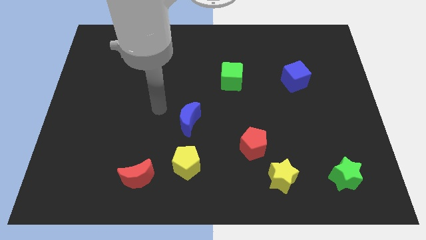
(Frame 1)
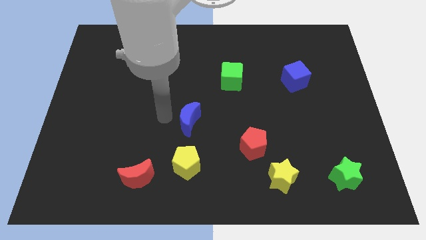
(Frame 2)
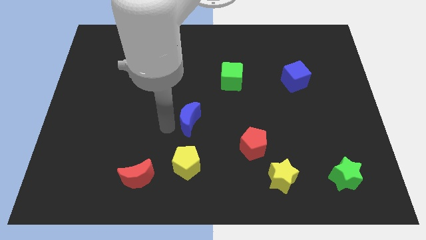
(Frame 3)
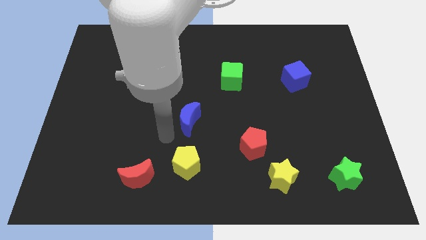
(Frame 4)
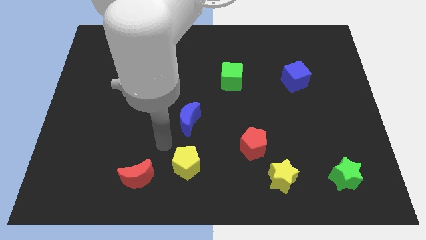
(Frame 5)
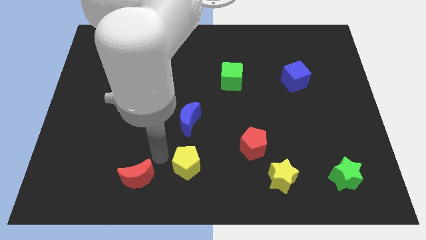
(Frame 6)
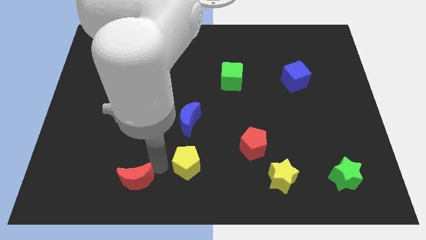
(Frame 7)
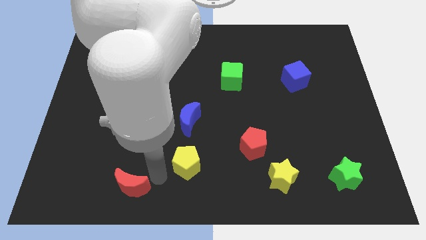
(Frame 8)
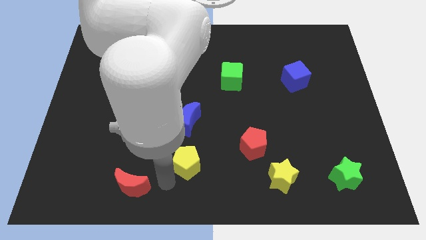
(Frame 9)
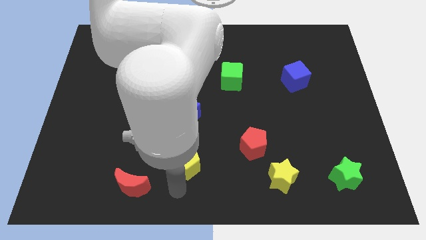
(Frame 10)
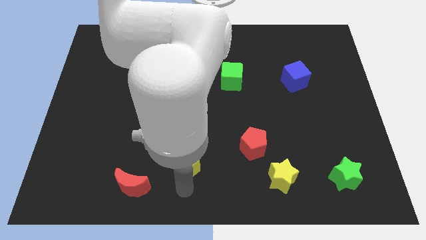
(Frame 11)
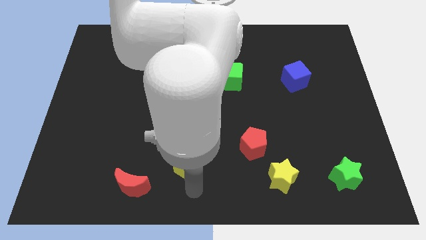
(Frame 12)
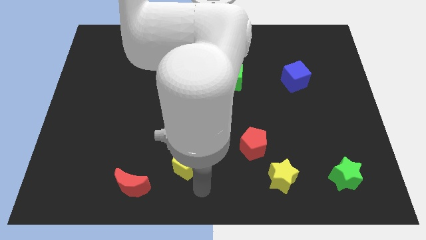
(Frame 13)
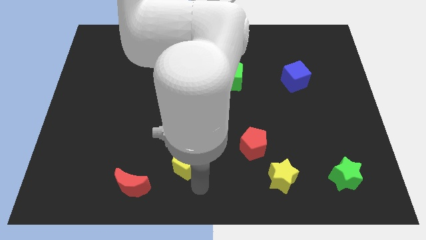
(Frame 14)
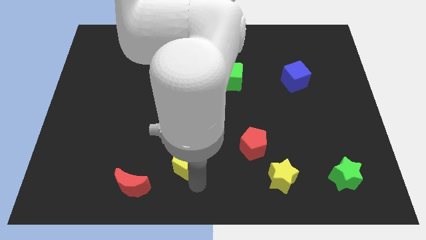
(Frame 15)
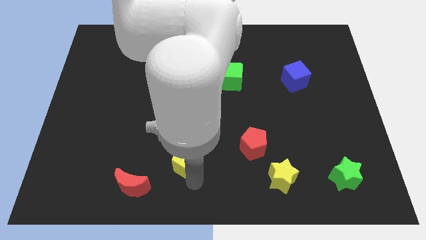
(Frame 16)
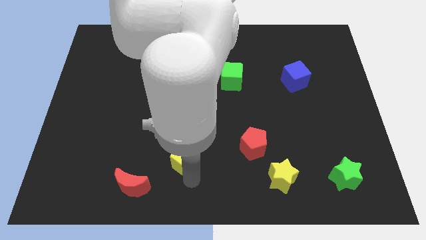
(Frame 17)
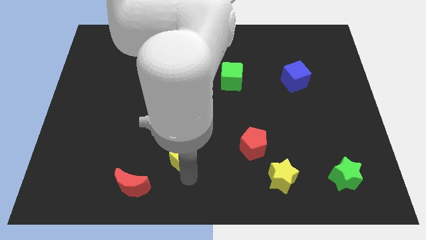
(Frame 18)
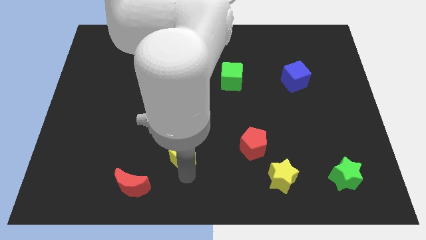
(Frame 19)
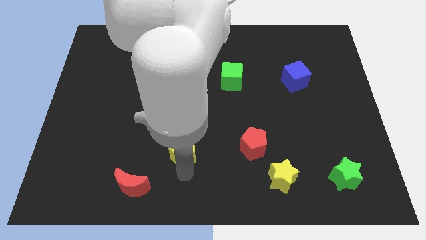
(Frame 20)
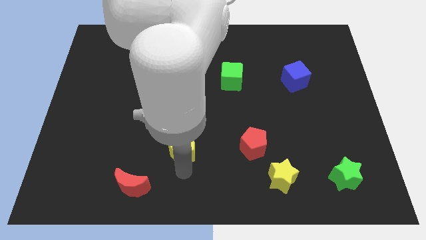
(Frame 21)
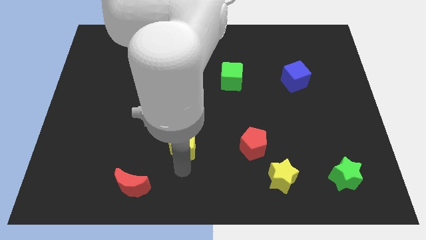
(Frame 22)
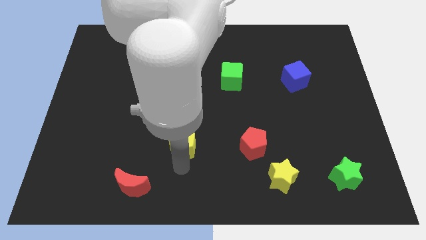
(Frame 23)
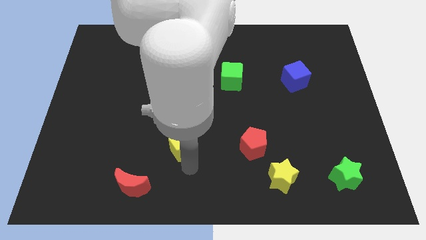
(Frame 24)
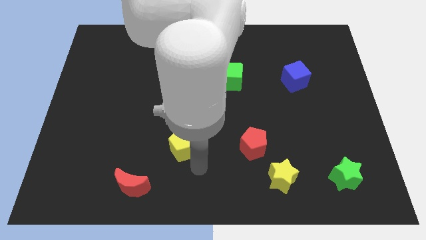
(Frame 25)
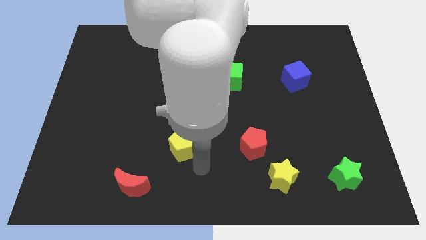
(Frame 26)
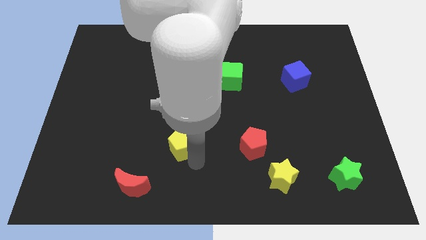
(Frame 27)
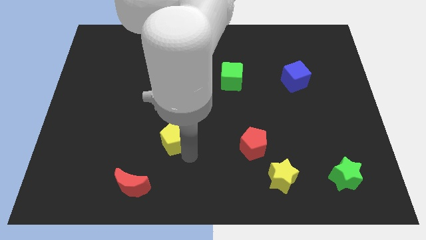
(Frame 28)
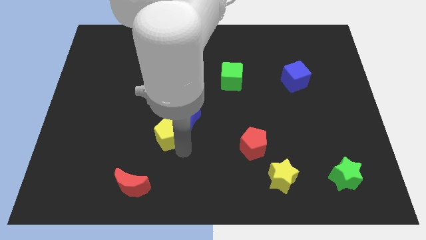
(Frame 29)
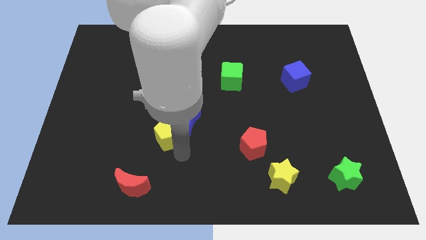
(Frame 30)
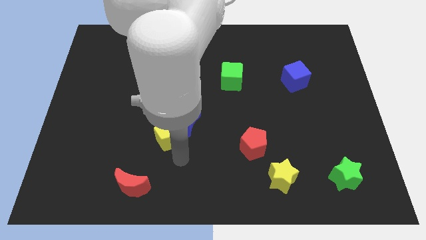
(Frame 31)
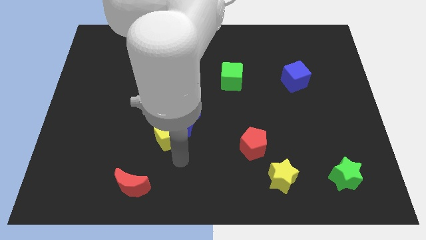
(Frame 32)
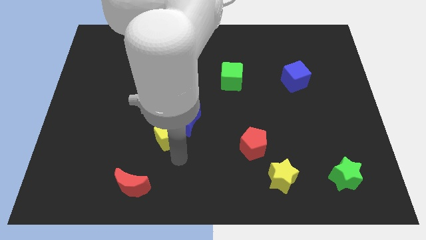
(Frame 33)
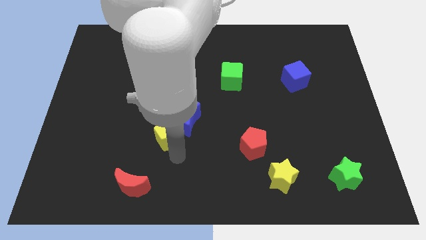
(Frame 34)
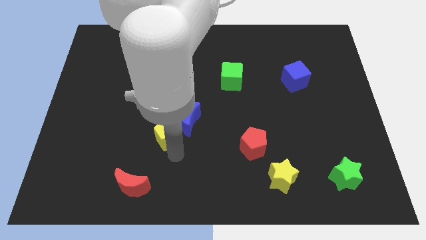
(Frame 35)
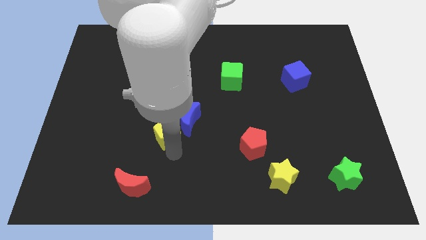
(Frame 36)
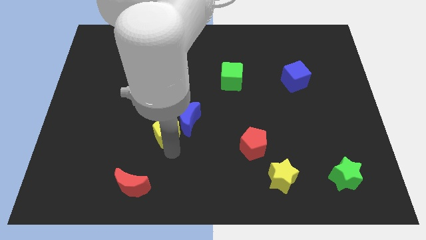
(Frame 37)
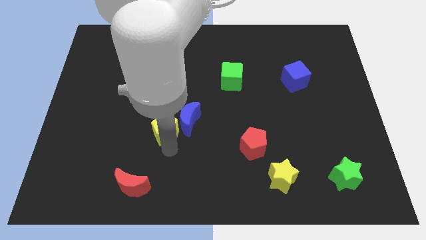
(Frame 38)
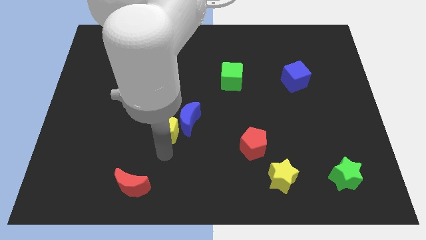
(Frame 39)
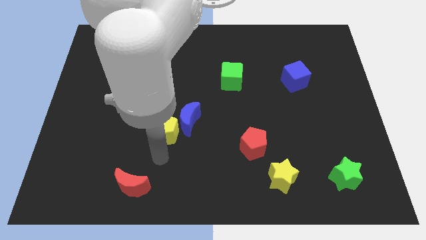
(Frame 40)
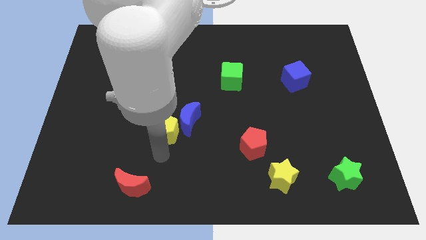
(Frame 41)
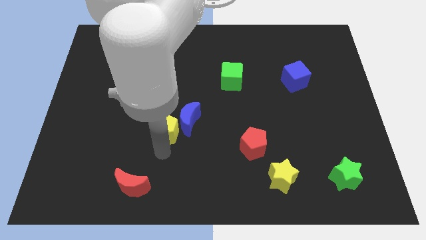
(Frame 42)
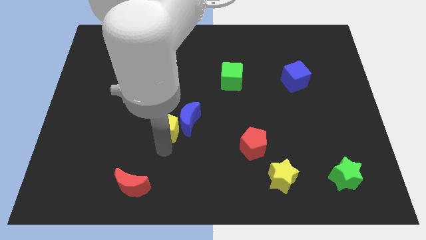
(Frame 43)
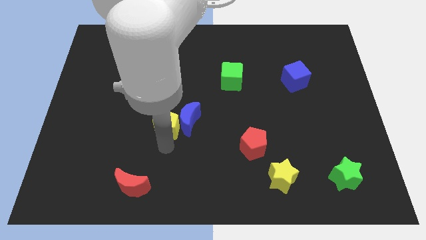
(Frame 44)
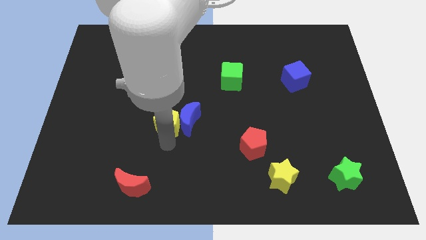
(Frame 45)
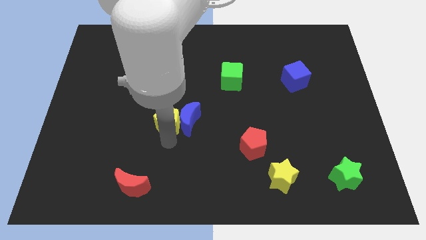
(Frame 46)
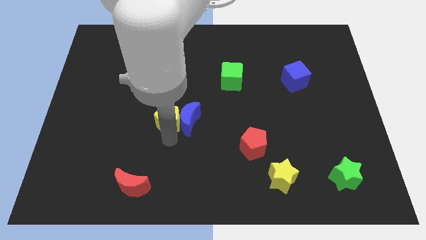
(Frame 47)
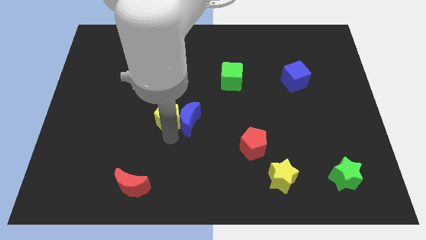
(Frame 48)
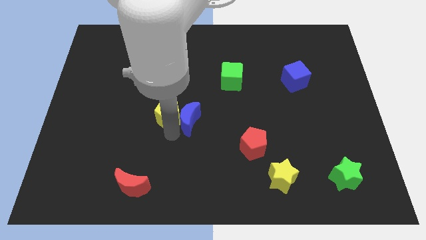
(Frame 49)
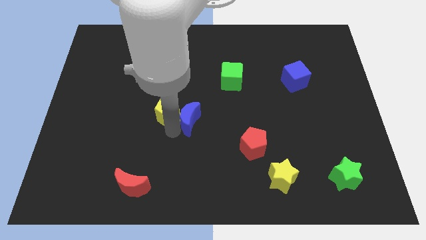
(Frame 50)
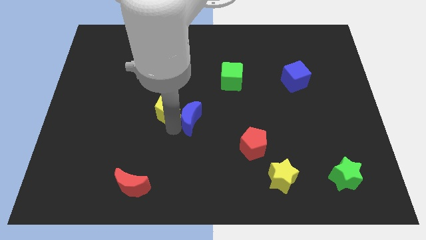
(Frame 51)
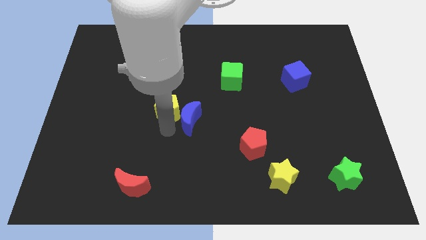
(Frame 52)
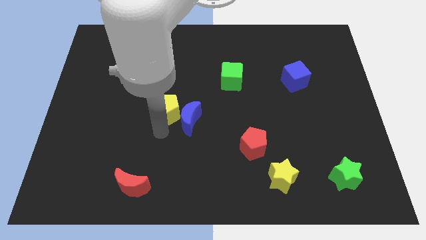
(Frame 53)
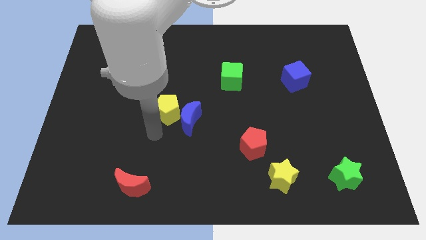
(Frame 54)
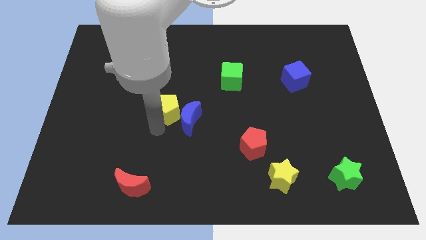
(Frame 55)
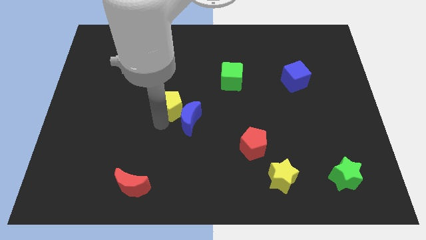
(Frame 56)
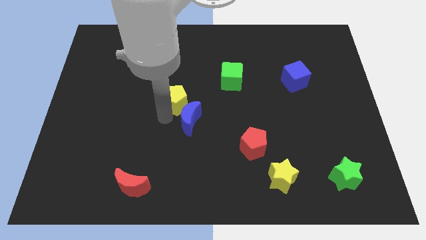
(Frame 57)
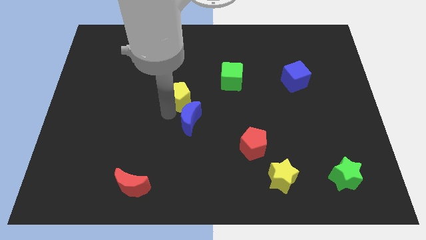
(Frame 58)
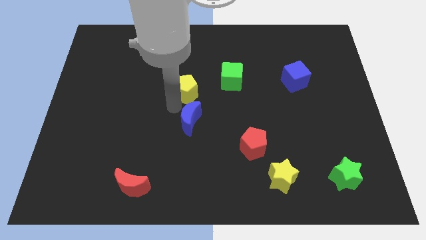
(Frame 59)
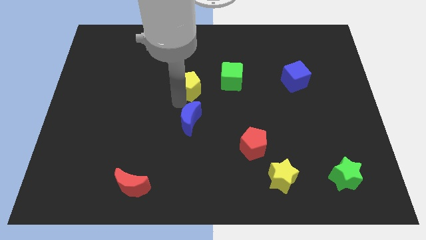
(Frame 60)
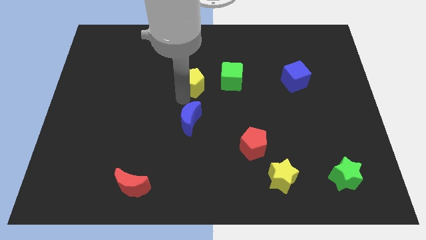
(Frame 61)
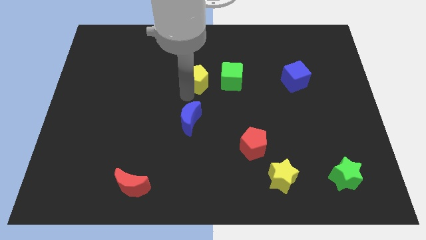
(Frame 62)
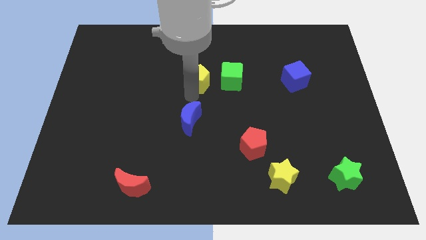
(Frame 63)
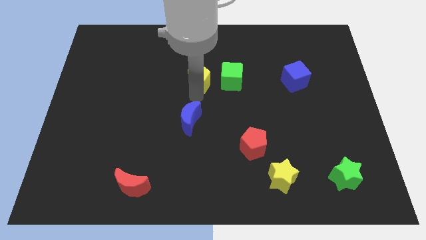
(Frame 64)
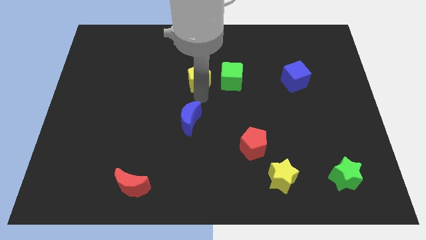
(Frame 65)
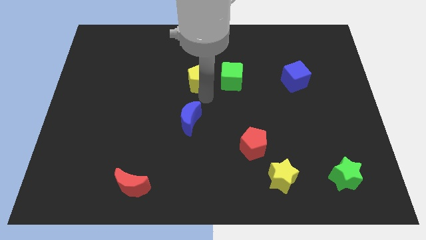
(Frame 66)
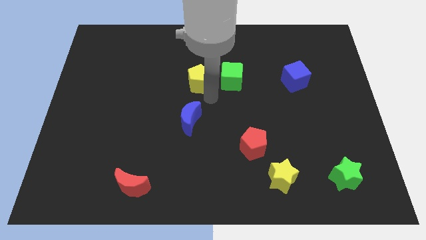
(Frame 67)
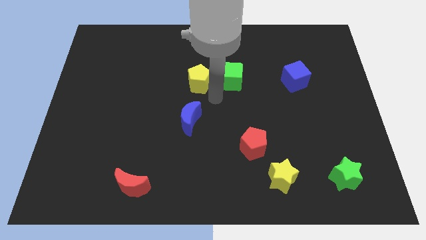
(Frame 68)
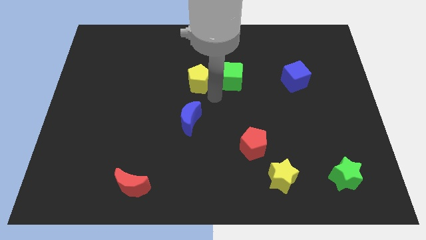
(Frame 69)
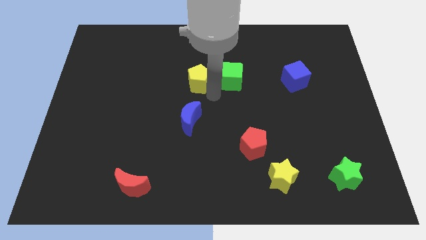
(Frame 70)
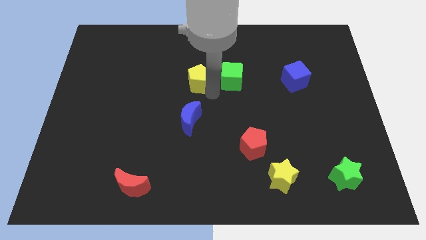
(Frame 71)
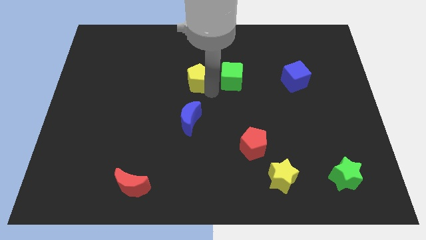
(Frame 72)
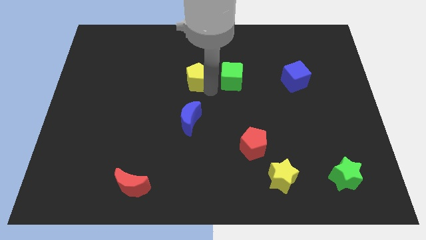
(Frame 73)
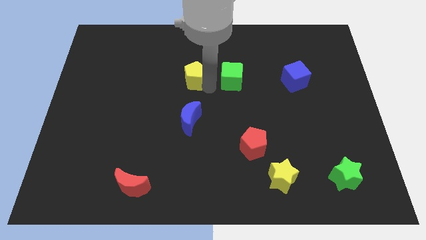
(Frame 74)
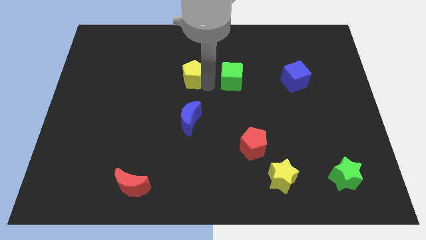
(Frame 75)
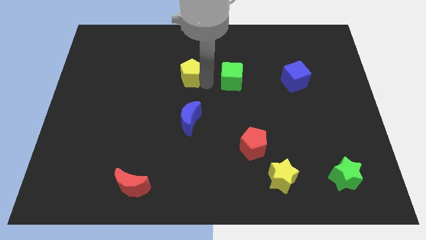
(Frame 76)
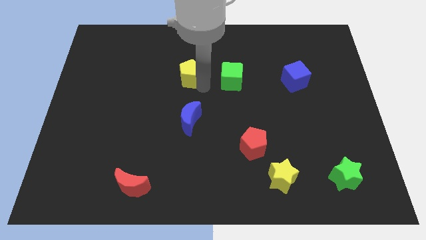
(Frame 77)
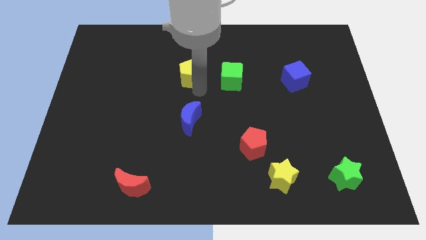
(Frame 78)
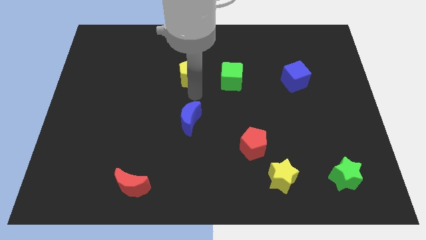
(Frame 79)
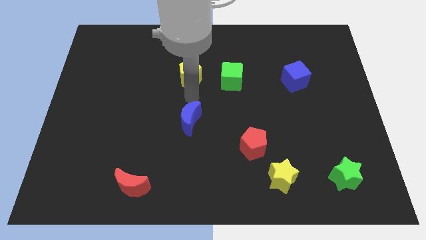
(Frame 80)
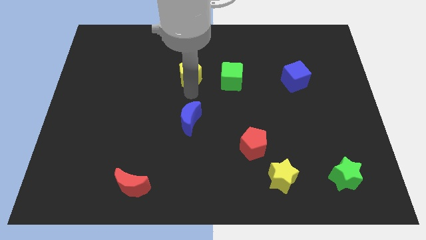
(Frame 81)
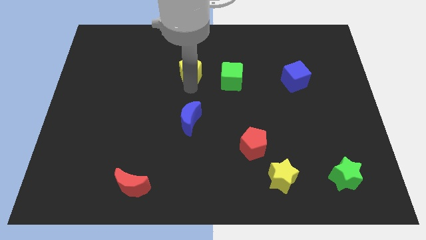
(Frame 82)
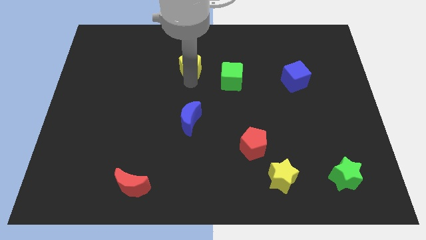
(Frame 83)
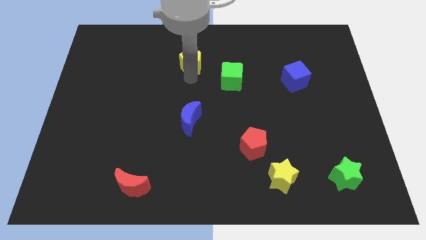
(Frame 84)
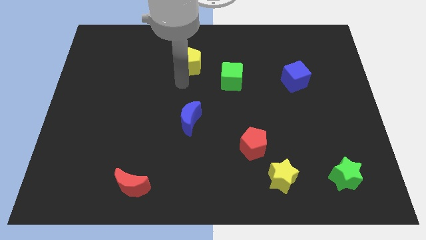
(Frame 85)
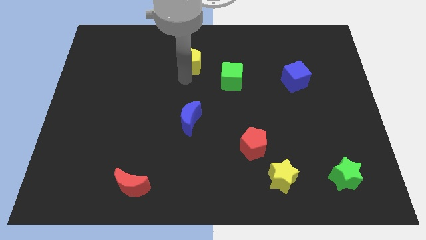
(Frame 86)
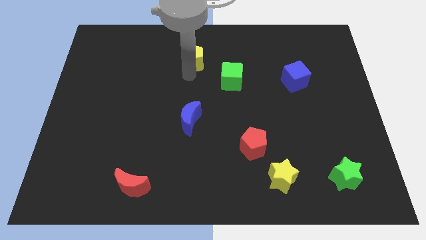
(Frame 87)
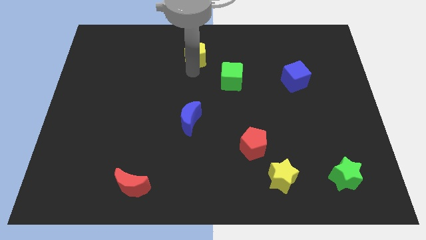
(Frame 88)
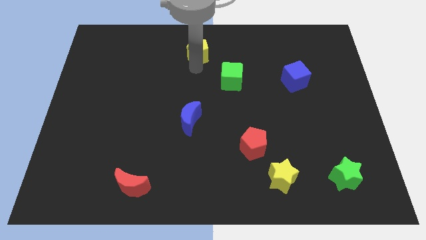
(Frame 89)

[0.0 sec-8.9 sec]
move the yellow pentagon to the top
